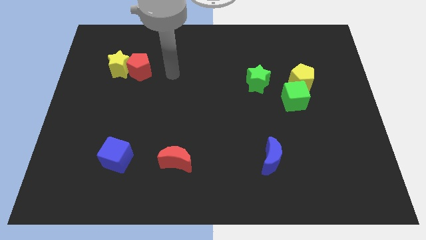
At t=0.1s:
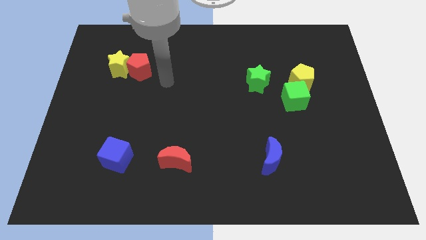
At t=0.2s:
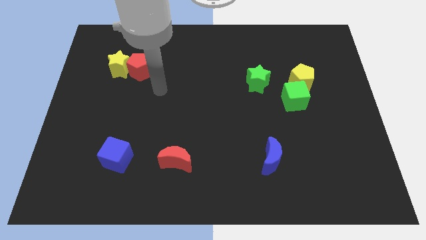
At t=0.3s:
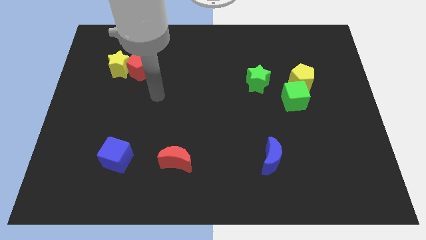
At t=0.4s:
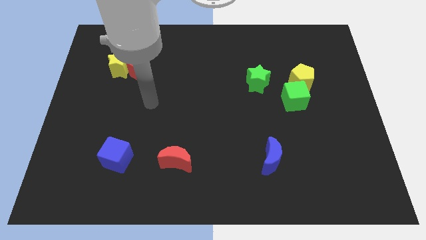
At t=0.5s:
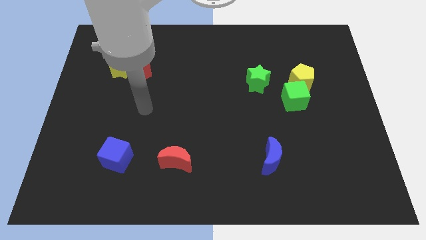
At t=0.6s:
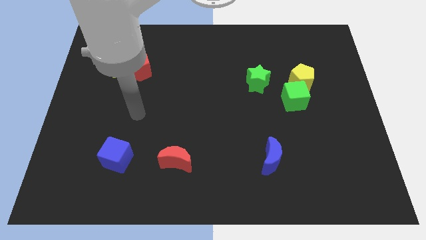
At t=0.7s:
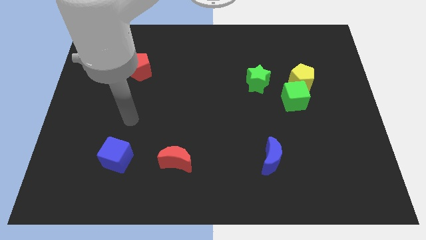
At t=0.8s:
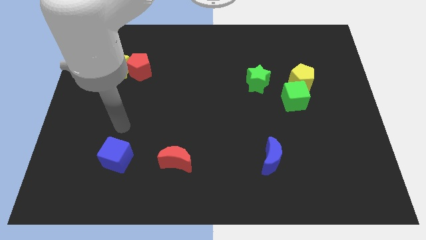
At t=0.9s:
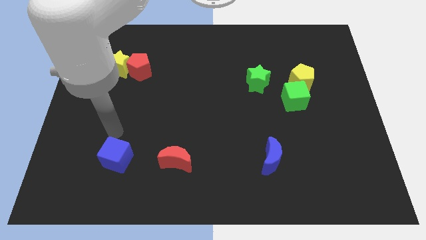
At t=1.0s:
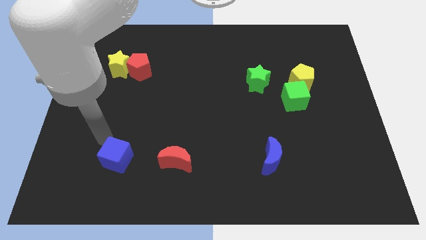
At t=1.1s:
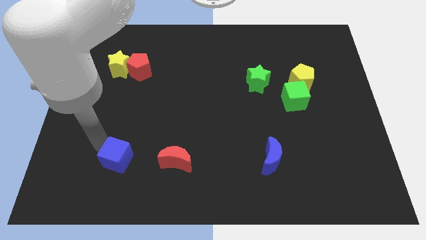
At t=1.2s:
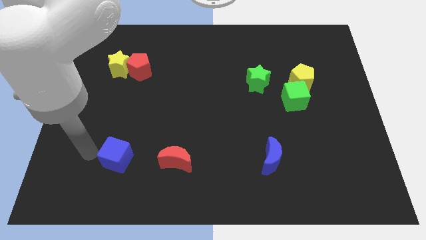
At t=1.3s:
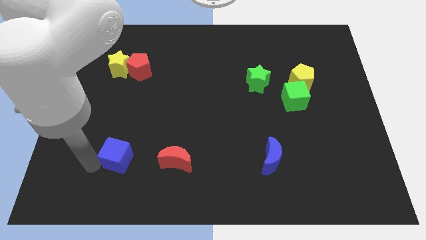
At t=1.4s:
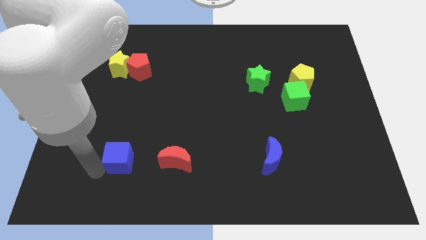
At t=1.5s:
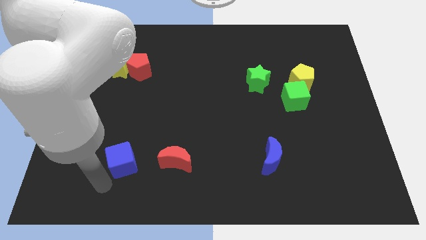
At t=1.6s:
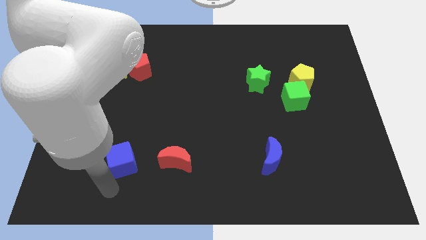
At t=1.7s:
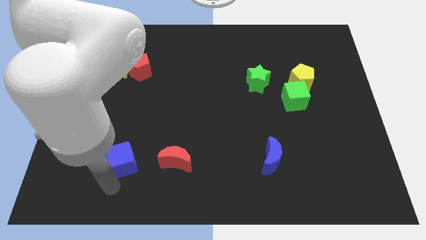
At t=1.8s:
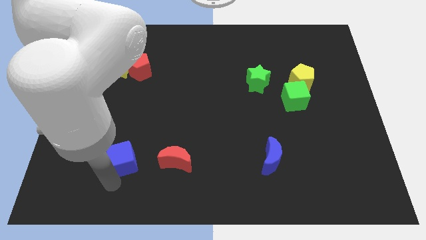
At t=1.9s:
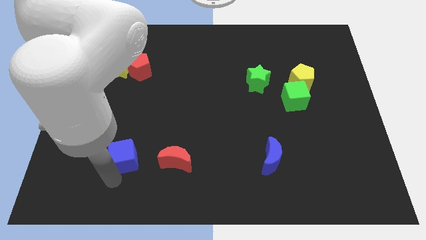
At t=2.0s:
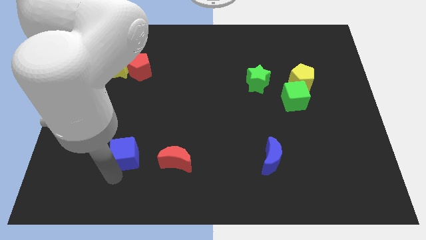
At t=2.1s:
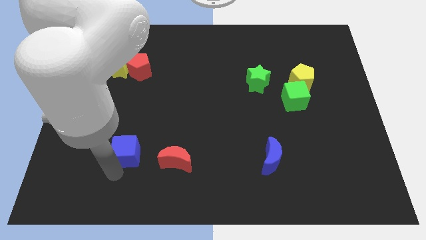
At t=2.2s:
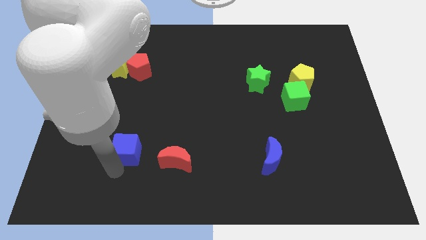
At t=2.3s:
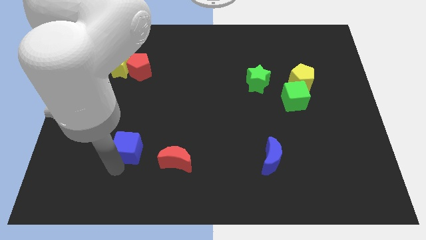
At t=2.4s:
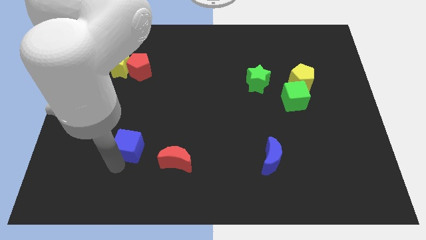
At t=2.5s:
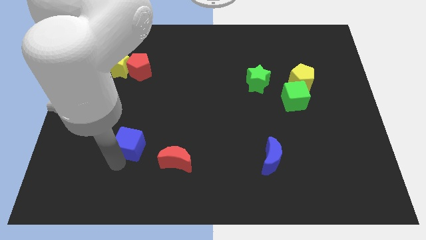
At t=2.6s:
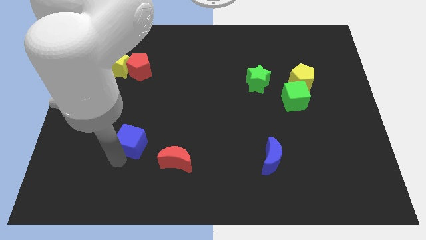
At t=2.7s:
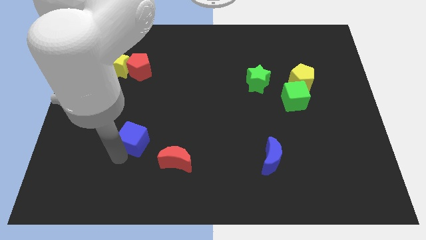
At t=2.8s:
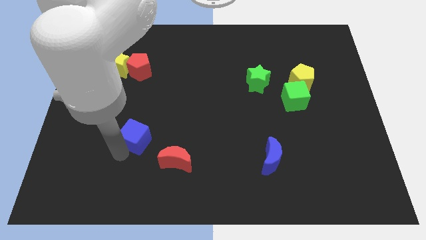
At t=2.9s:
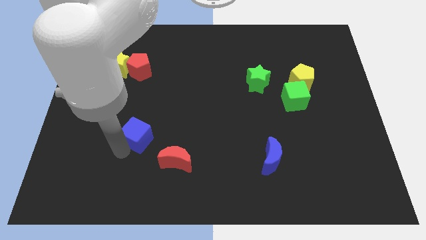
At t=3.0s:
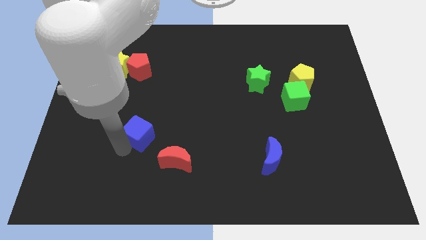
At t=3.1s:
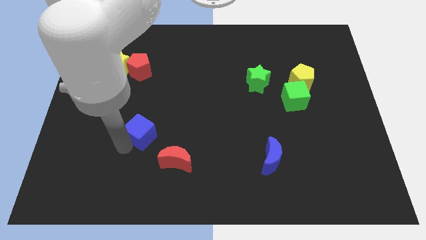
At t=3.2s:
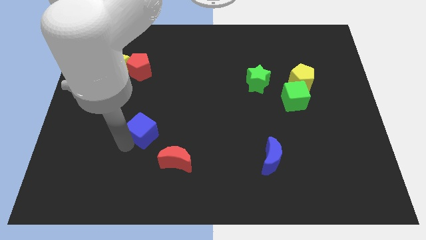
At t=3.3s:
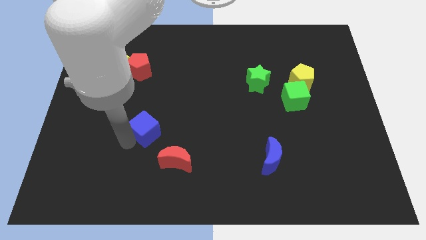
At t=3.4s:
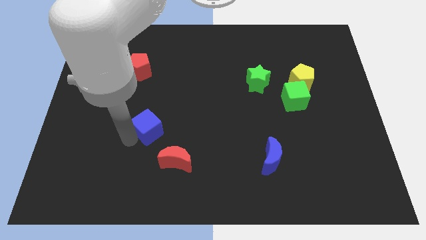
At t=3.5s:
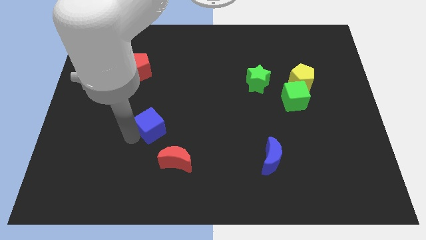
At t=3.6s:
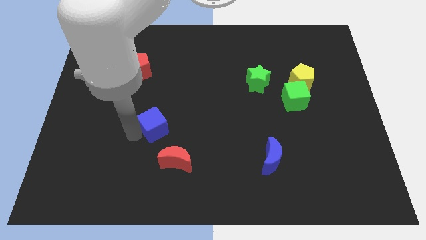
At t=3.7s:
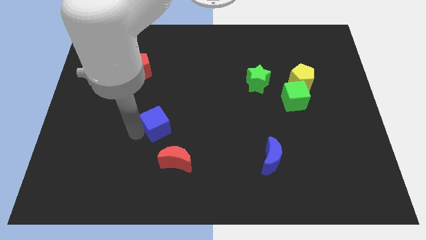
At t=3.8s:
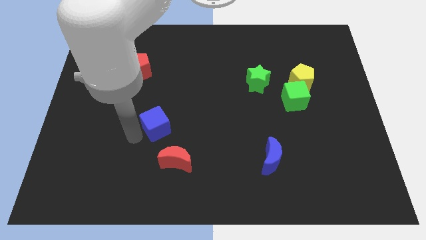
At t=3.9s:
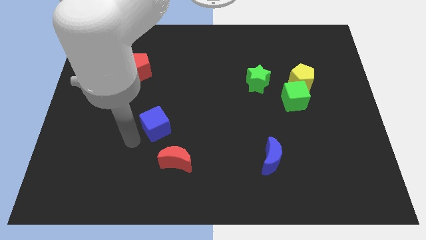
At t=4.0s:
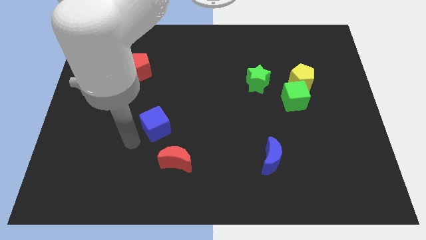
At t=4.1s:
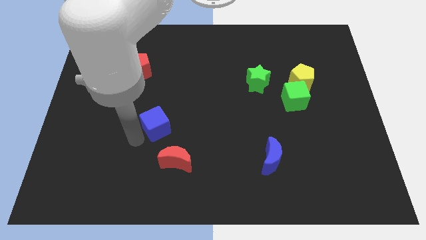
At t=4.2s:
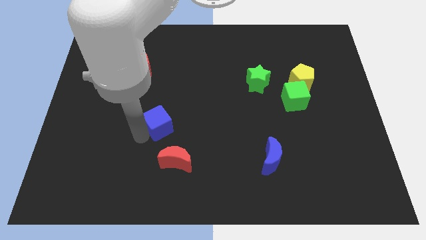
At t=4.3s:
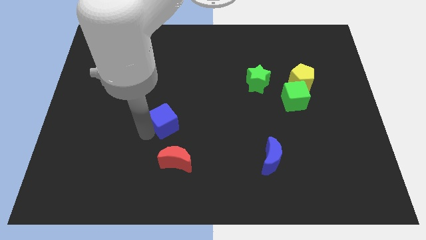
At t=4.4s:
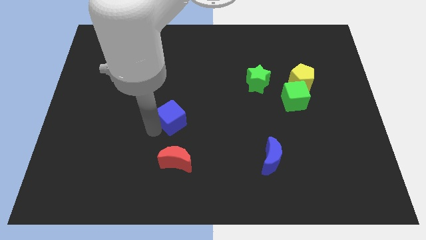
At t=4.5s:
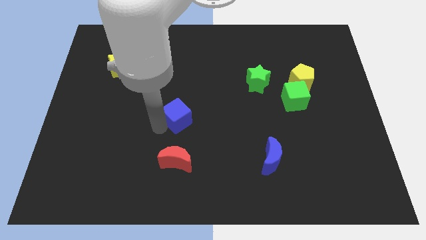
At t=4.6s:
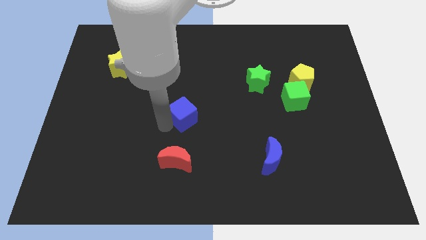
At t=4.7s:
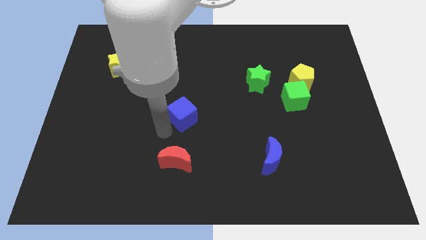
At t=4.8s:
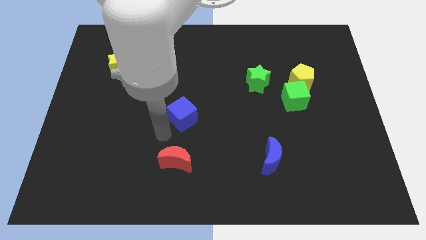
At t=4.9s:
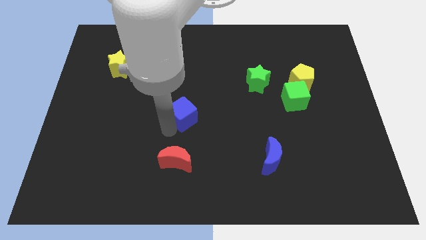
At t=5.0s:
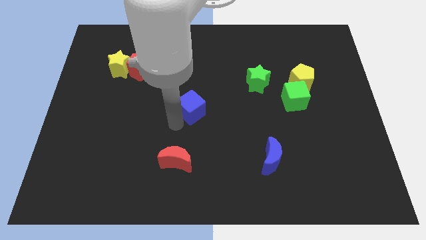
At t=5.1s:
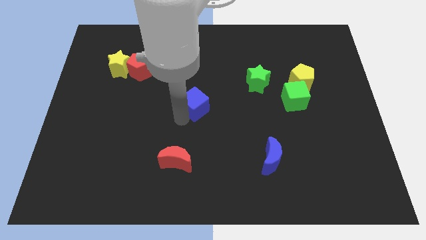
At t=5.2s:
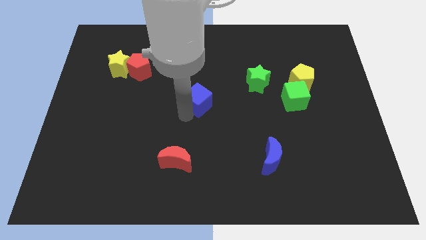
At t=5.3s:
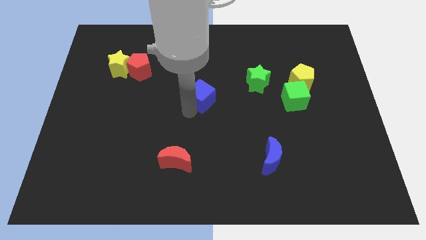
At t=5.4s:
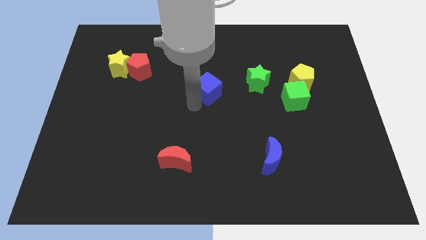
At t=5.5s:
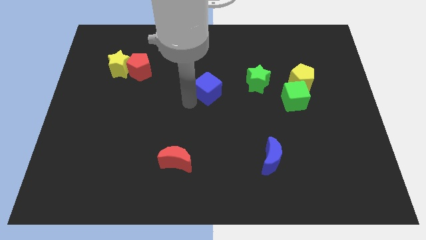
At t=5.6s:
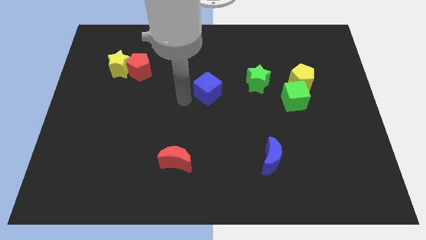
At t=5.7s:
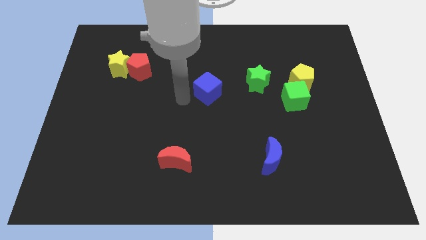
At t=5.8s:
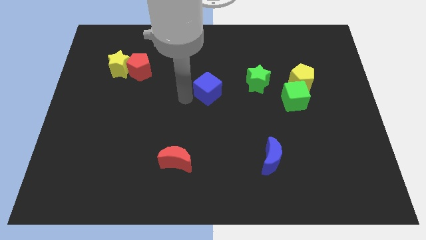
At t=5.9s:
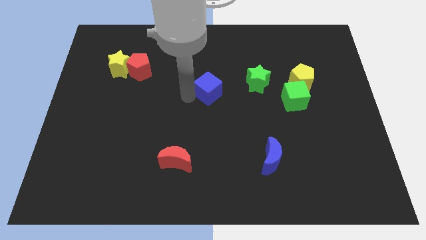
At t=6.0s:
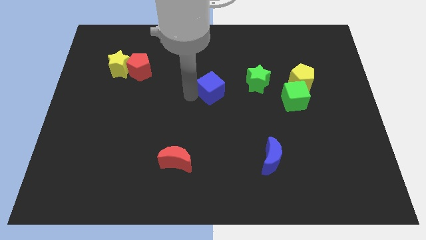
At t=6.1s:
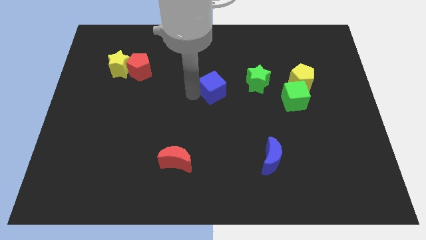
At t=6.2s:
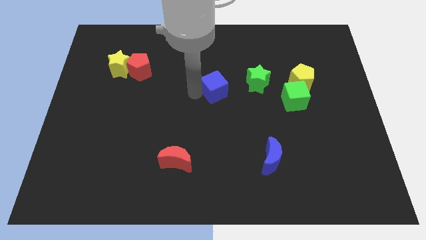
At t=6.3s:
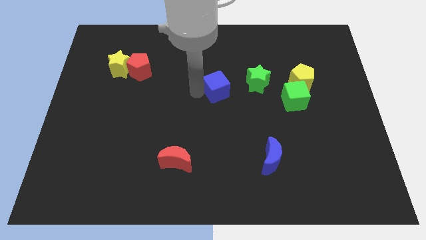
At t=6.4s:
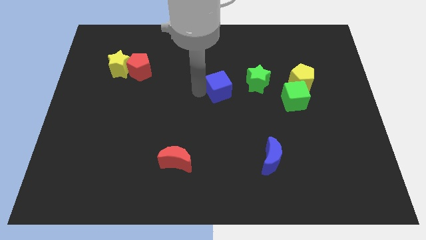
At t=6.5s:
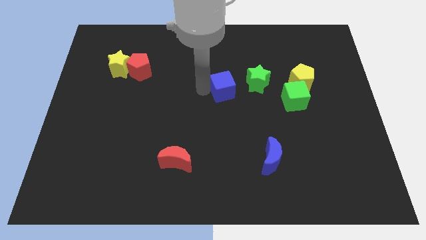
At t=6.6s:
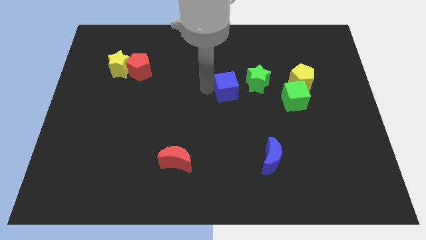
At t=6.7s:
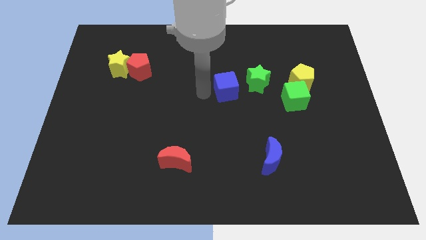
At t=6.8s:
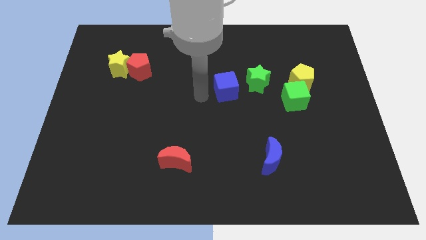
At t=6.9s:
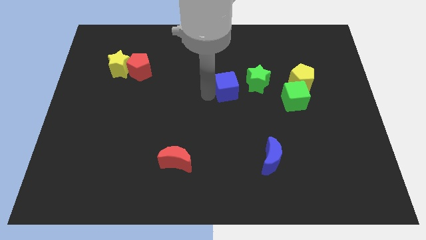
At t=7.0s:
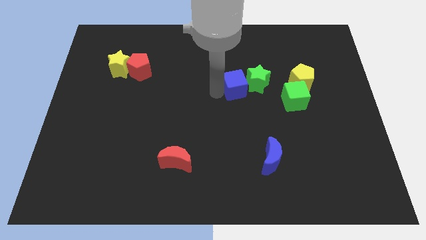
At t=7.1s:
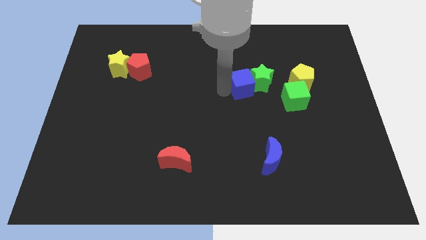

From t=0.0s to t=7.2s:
slide the blue cube just left of the yellow pentagon
